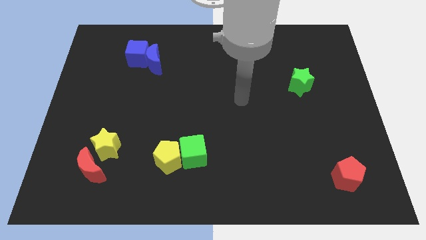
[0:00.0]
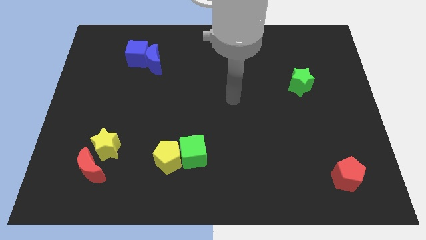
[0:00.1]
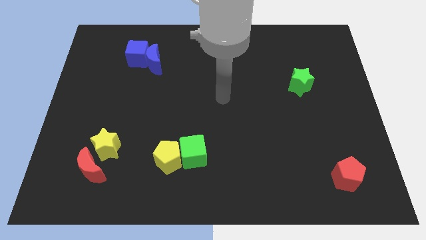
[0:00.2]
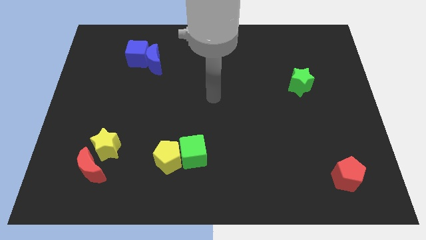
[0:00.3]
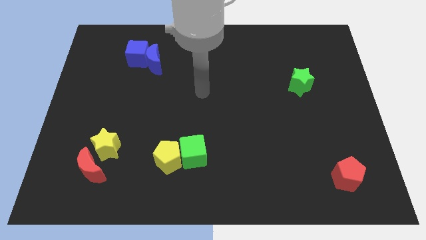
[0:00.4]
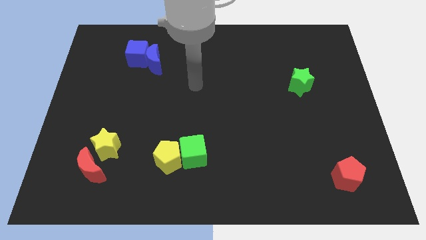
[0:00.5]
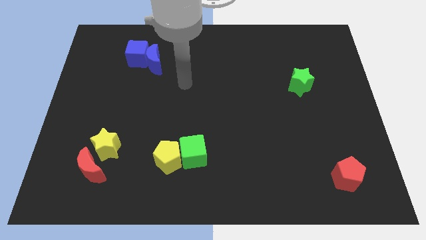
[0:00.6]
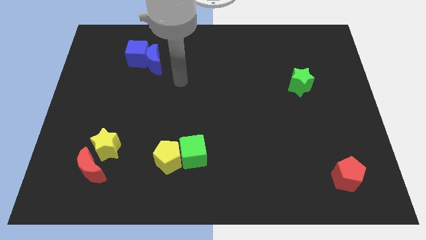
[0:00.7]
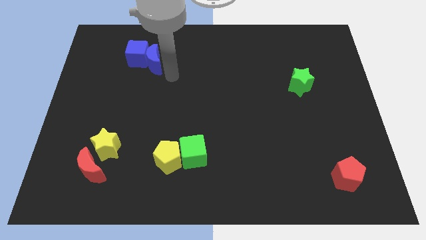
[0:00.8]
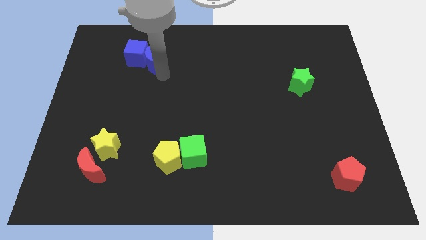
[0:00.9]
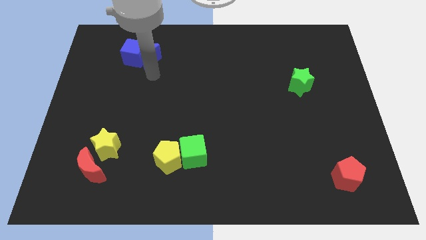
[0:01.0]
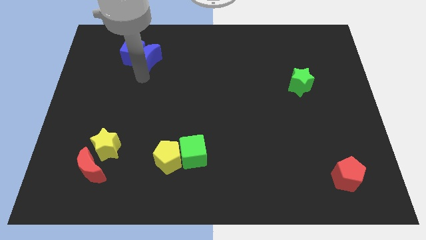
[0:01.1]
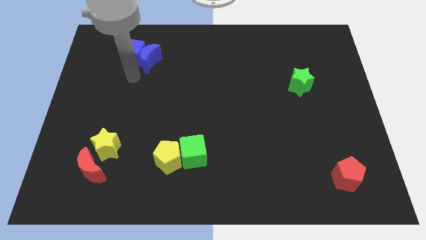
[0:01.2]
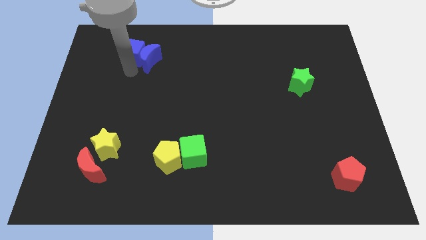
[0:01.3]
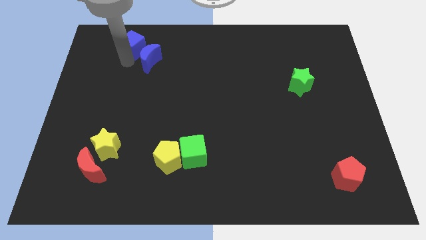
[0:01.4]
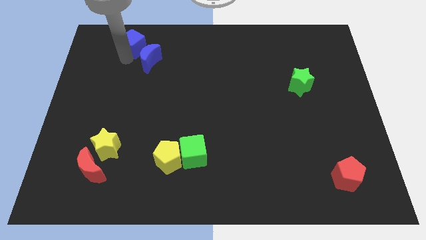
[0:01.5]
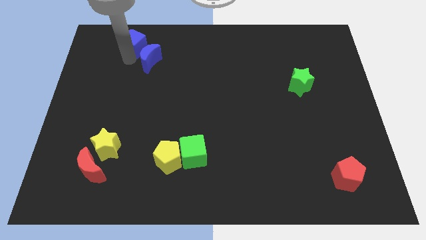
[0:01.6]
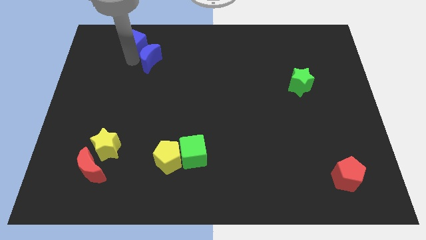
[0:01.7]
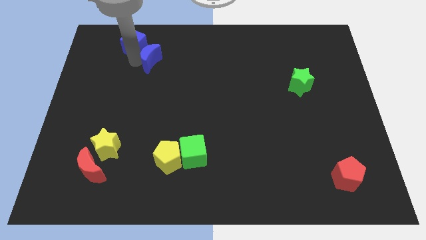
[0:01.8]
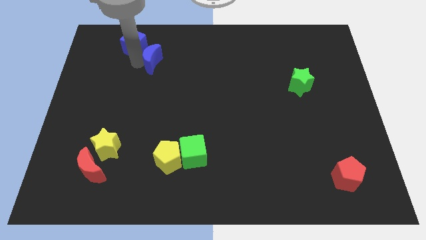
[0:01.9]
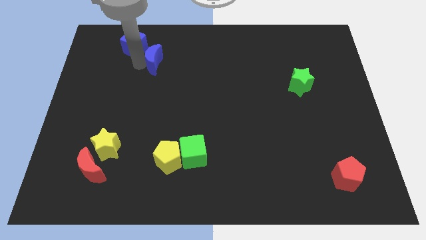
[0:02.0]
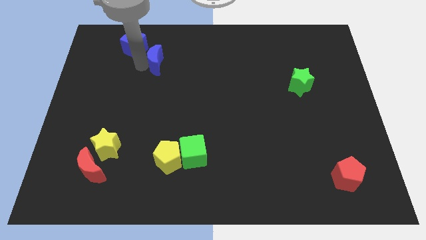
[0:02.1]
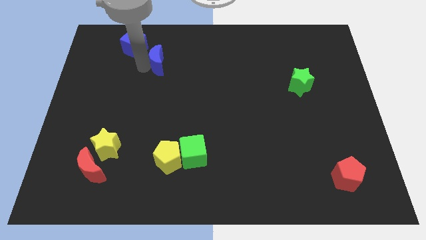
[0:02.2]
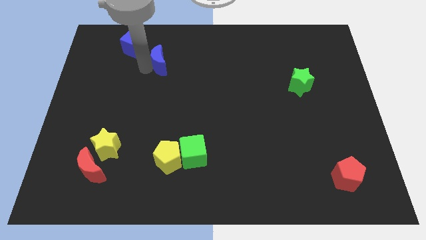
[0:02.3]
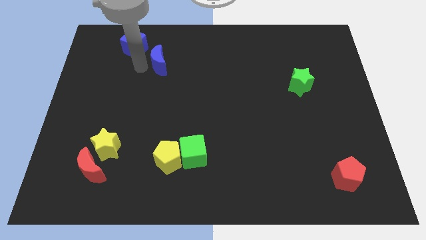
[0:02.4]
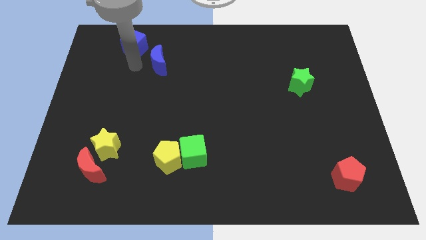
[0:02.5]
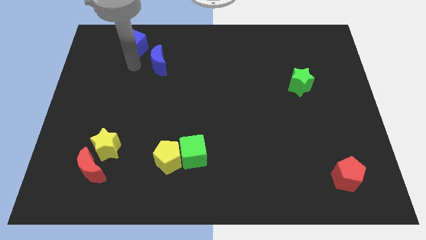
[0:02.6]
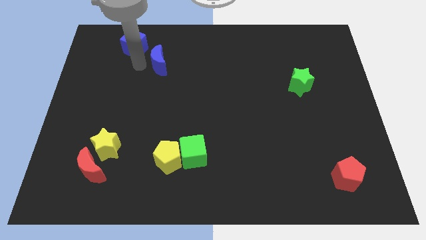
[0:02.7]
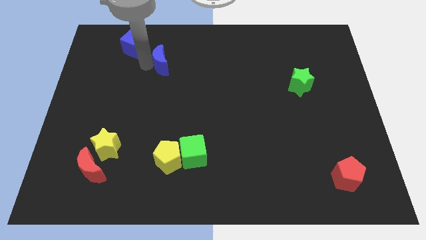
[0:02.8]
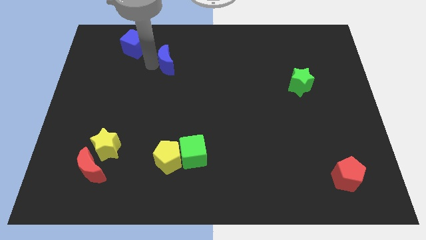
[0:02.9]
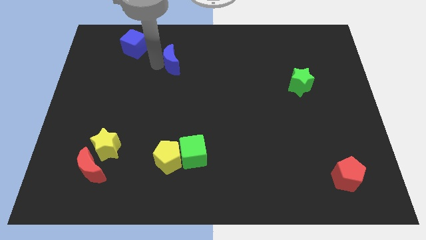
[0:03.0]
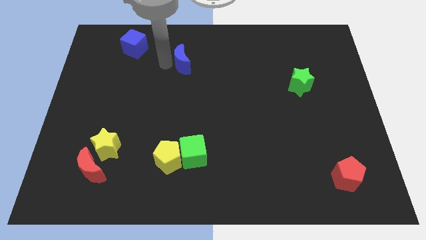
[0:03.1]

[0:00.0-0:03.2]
slide the blue moon a bit to the right

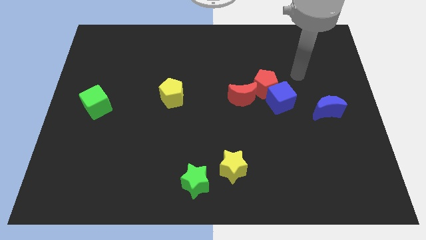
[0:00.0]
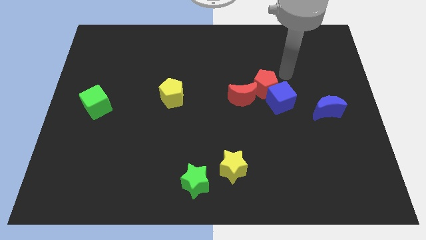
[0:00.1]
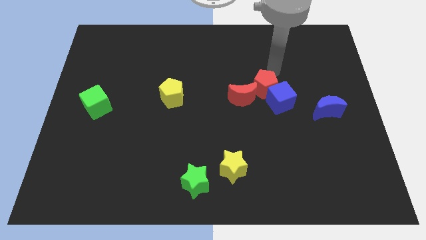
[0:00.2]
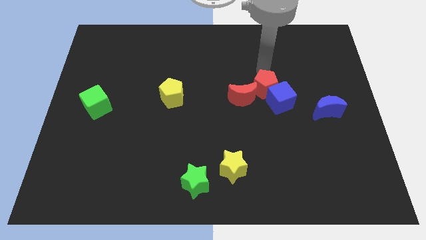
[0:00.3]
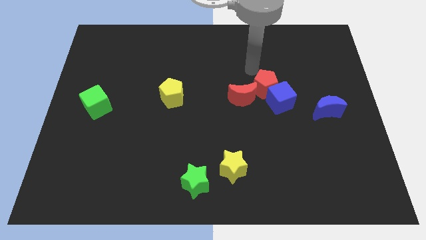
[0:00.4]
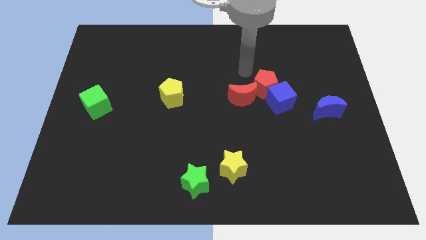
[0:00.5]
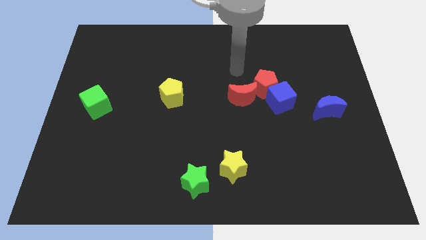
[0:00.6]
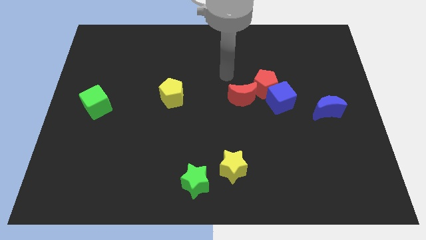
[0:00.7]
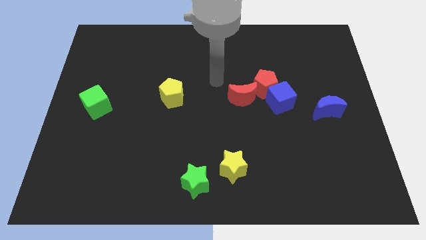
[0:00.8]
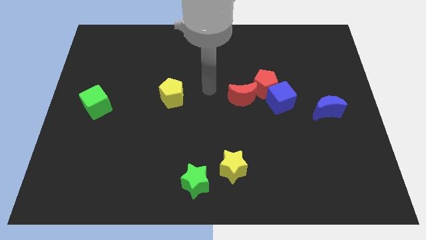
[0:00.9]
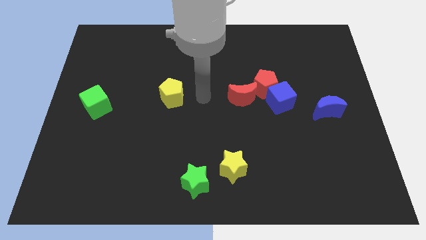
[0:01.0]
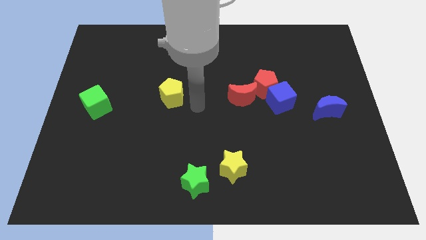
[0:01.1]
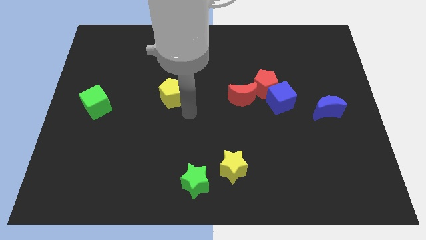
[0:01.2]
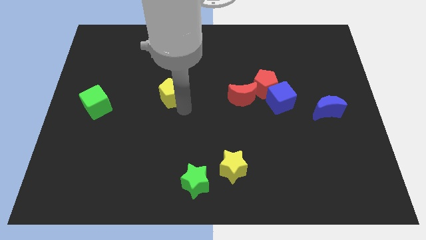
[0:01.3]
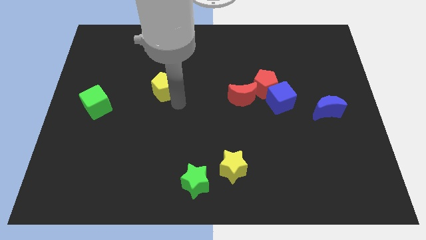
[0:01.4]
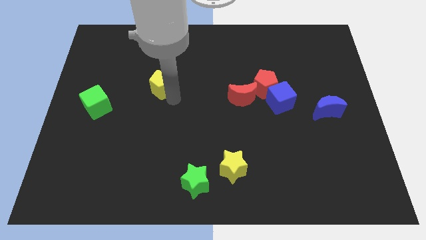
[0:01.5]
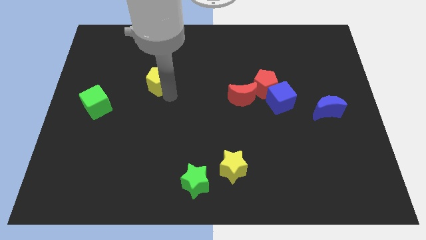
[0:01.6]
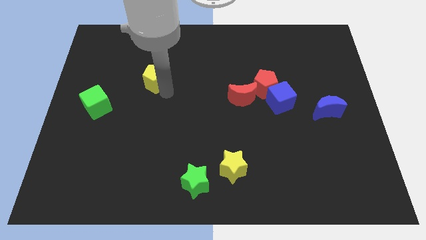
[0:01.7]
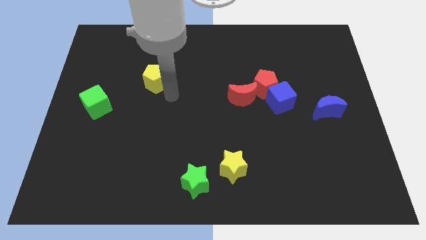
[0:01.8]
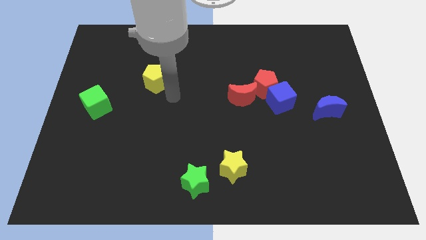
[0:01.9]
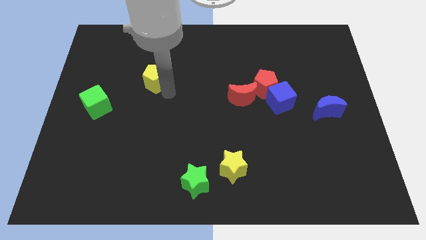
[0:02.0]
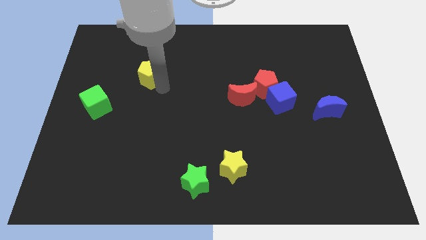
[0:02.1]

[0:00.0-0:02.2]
slightly push the yellow pentagon up and to the left

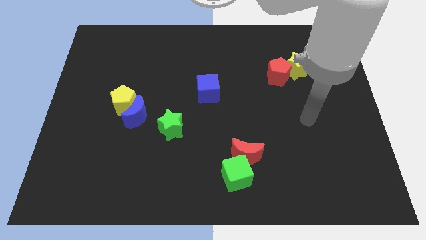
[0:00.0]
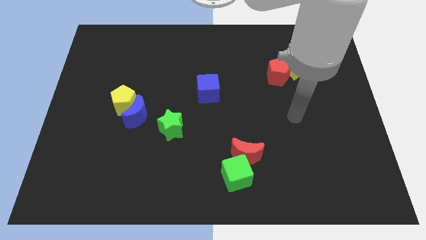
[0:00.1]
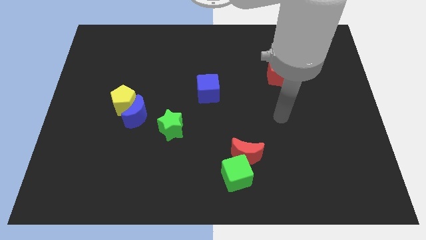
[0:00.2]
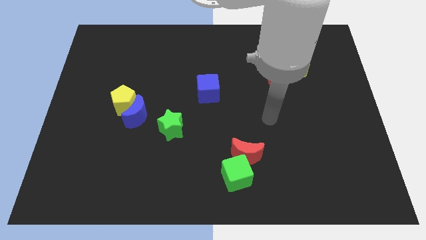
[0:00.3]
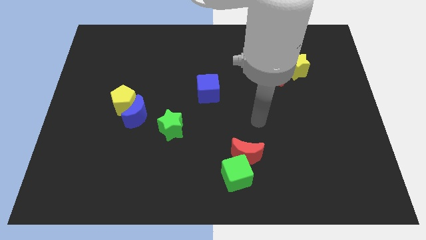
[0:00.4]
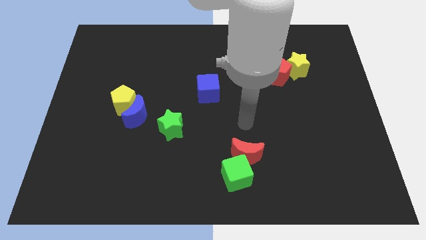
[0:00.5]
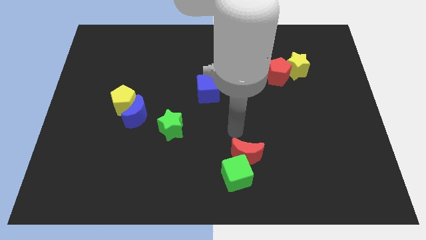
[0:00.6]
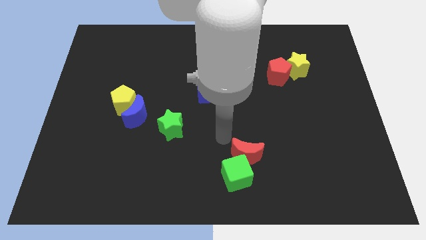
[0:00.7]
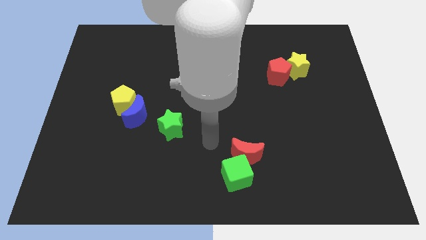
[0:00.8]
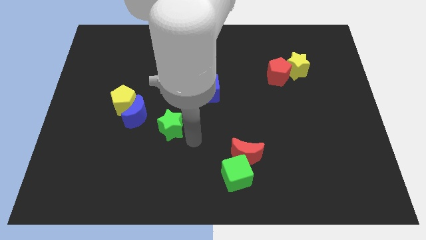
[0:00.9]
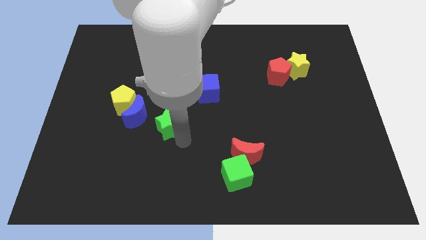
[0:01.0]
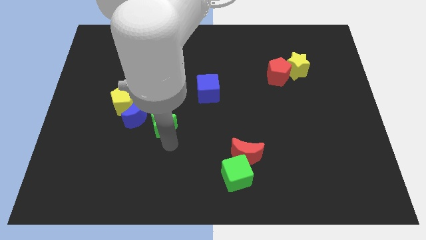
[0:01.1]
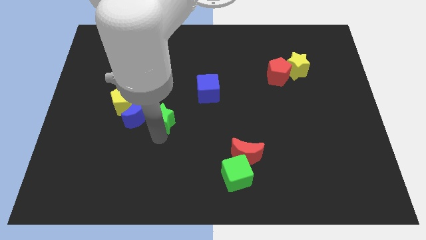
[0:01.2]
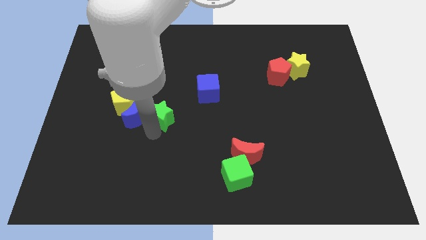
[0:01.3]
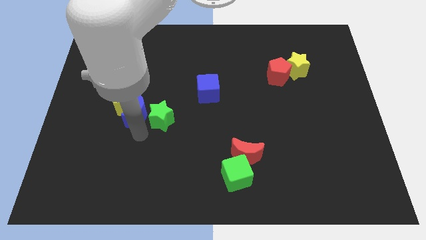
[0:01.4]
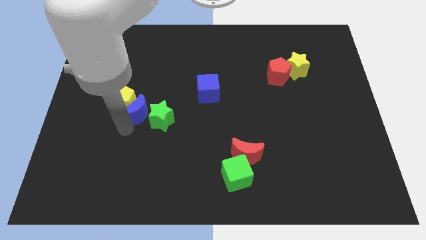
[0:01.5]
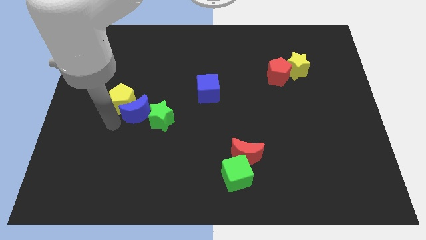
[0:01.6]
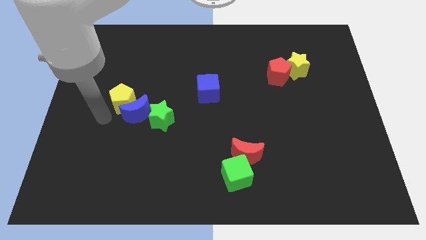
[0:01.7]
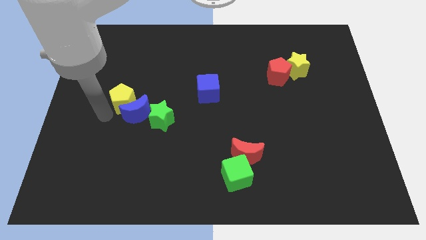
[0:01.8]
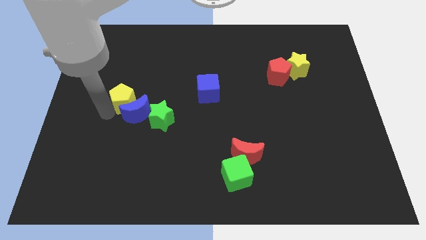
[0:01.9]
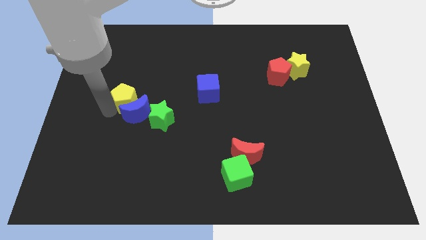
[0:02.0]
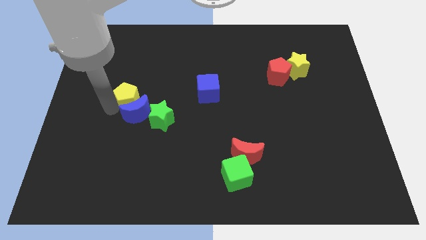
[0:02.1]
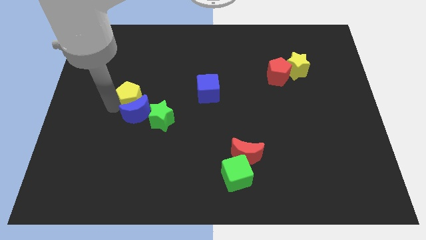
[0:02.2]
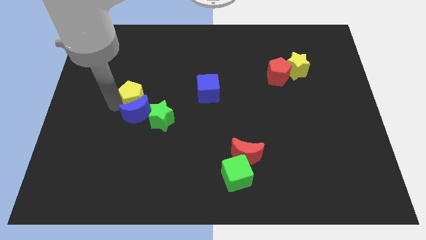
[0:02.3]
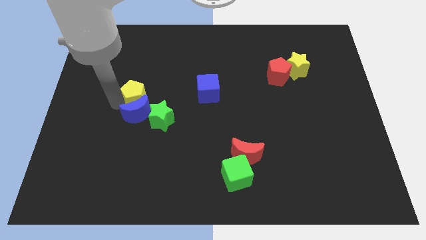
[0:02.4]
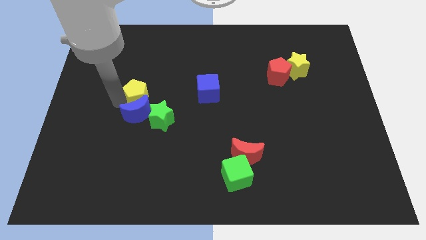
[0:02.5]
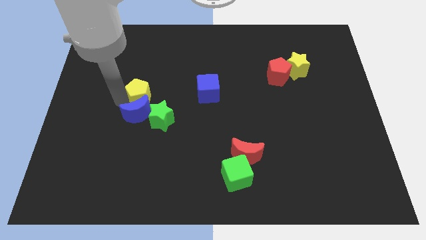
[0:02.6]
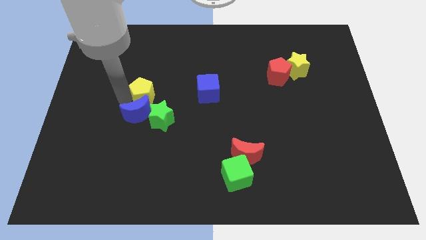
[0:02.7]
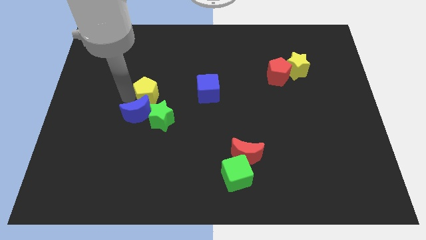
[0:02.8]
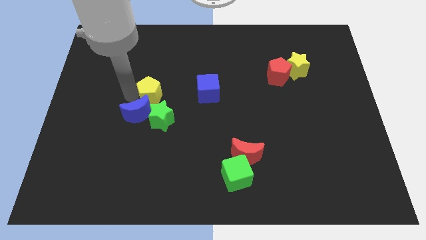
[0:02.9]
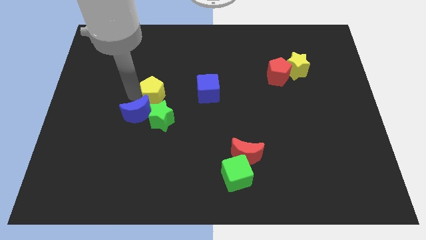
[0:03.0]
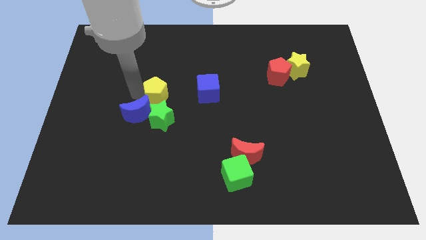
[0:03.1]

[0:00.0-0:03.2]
push the yellow pentagon a little bit upwards and to the right
